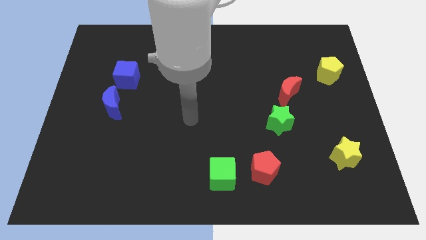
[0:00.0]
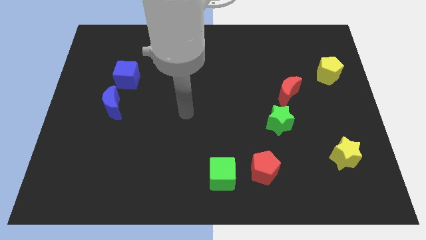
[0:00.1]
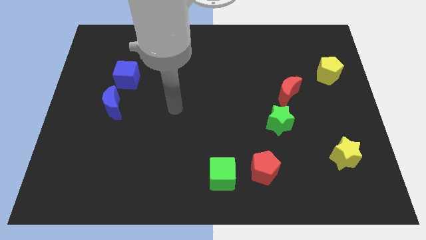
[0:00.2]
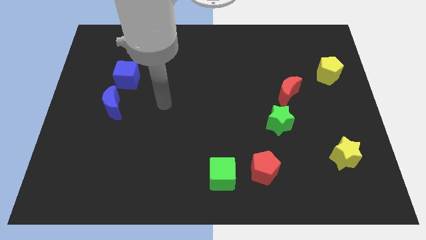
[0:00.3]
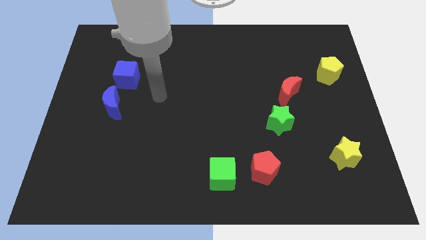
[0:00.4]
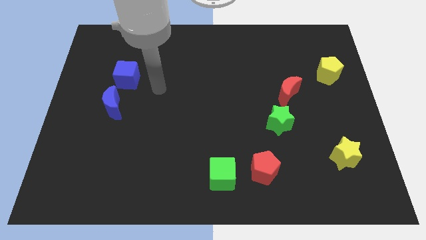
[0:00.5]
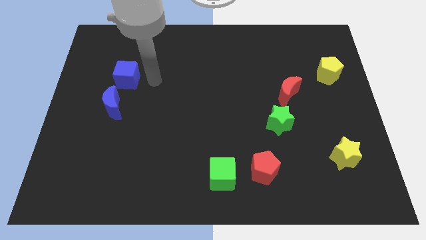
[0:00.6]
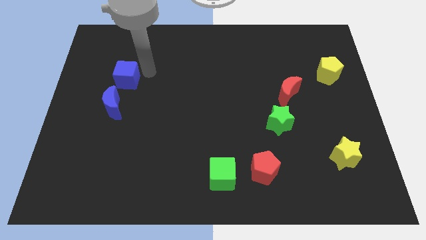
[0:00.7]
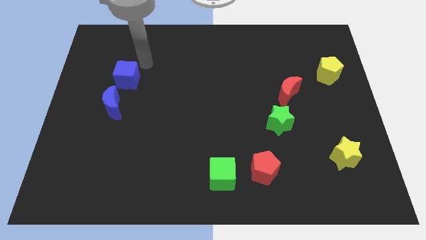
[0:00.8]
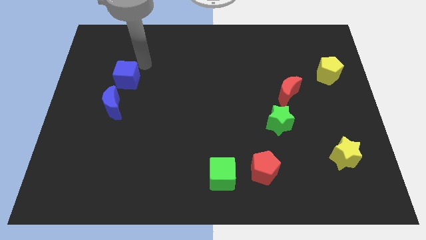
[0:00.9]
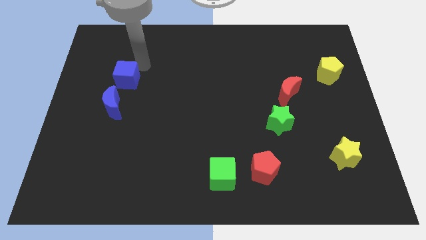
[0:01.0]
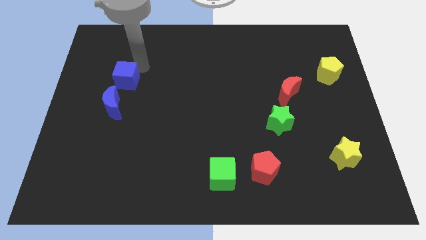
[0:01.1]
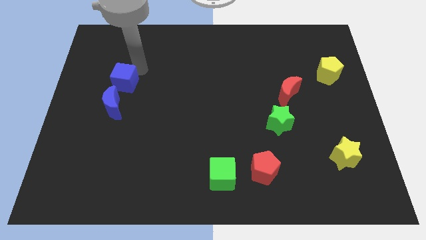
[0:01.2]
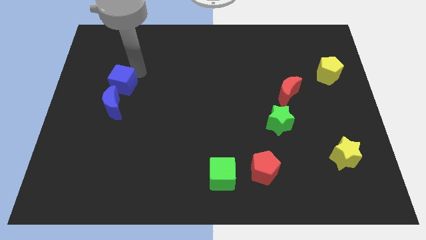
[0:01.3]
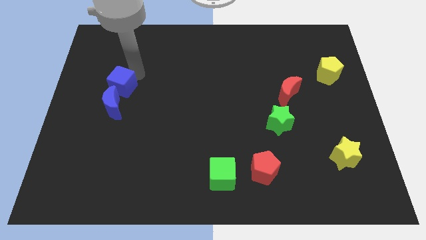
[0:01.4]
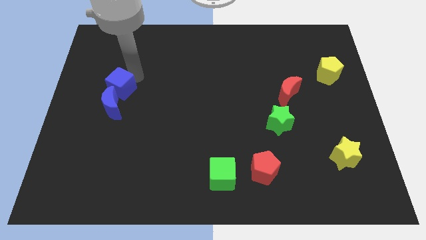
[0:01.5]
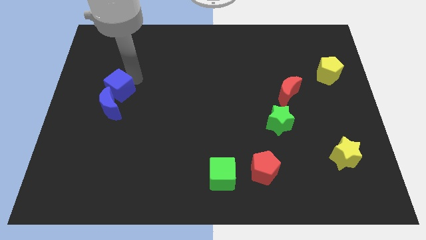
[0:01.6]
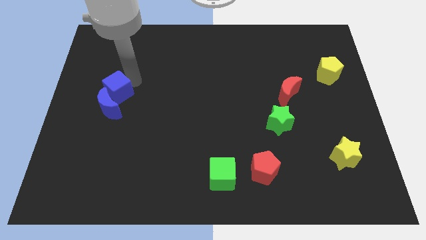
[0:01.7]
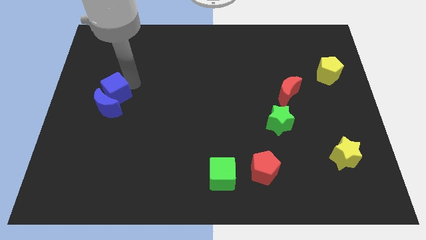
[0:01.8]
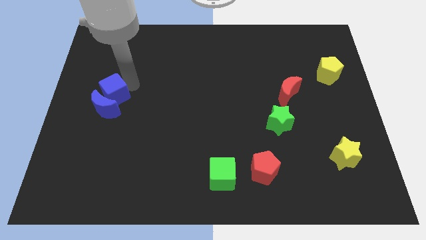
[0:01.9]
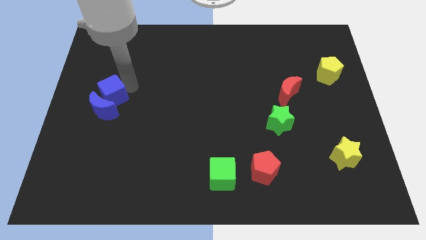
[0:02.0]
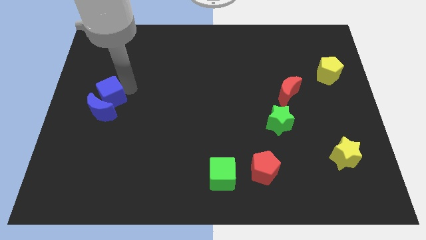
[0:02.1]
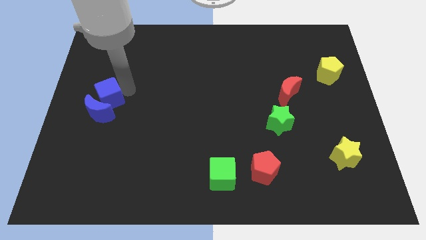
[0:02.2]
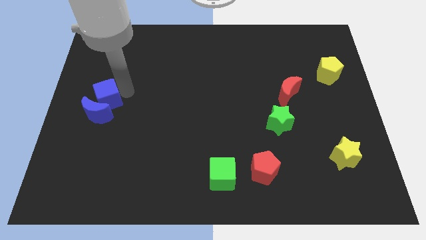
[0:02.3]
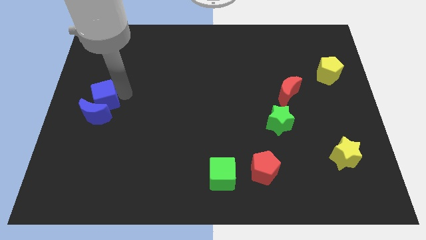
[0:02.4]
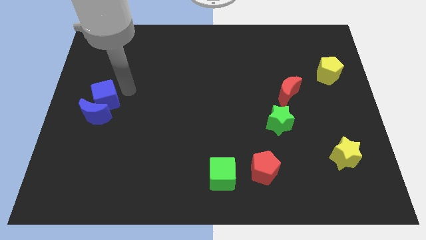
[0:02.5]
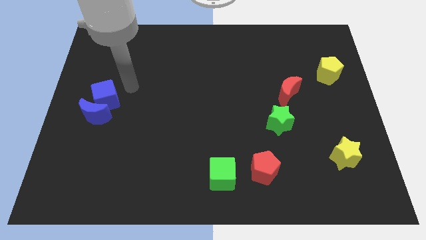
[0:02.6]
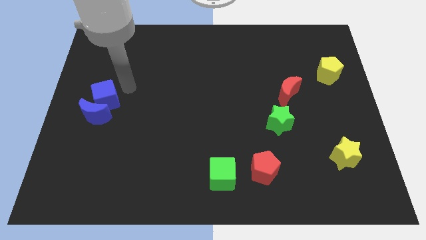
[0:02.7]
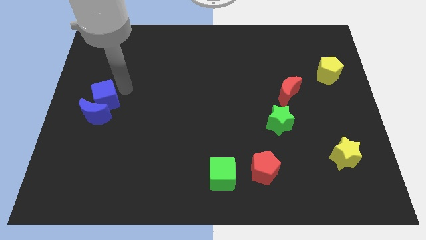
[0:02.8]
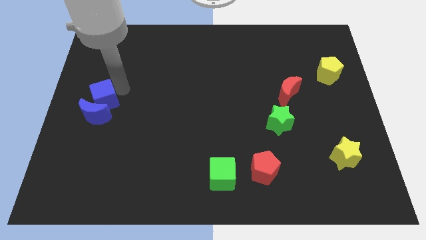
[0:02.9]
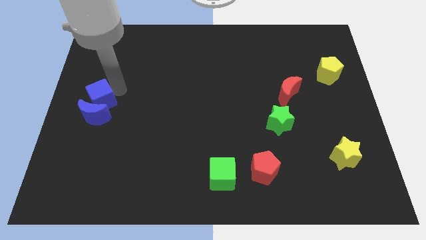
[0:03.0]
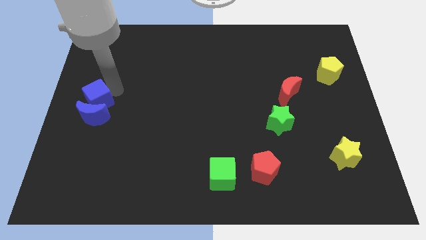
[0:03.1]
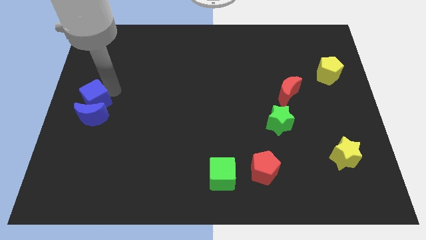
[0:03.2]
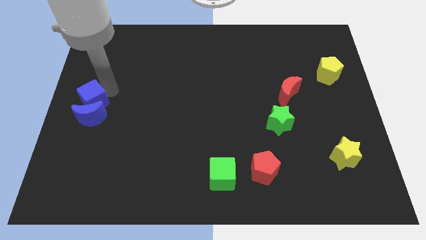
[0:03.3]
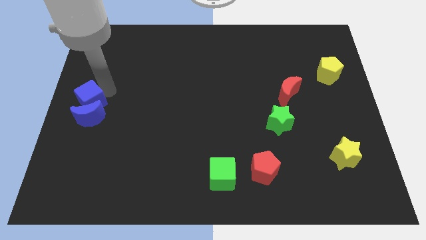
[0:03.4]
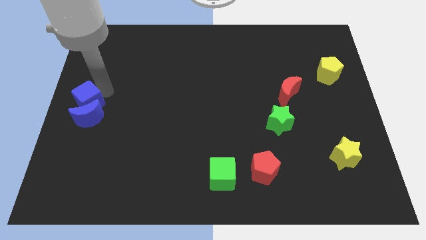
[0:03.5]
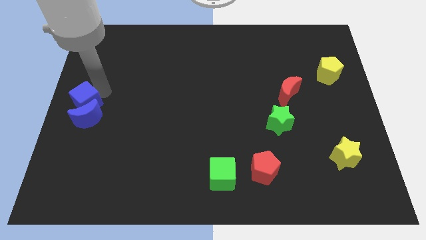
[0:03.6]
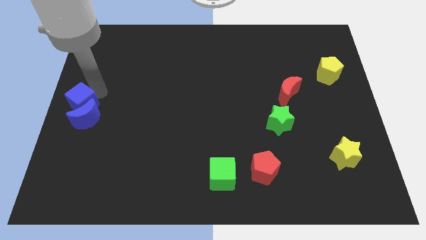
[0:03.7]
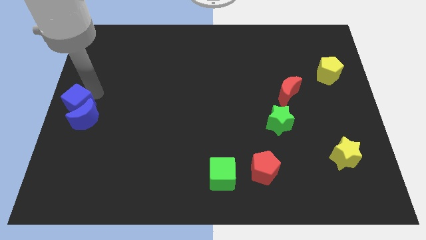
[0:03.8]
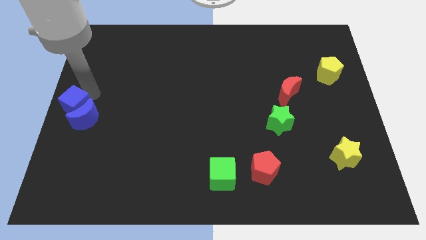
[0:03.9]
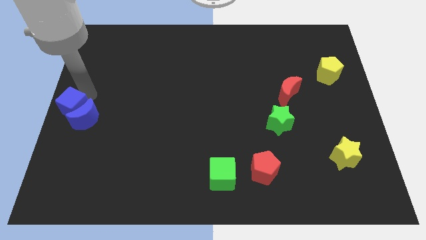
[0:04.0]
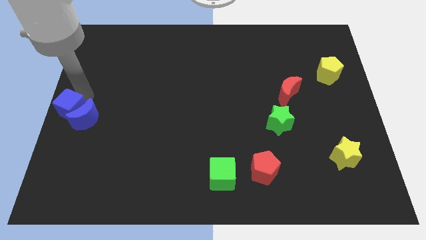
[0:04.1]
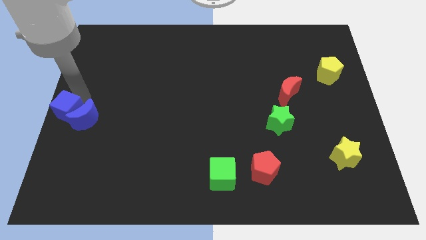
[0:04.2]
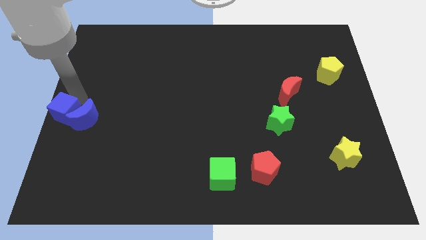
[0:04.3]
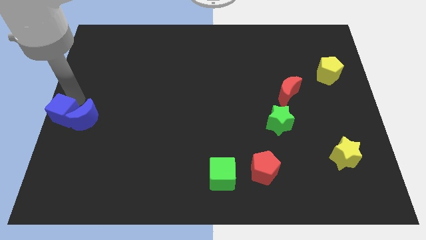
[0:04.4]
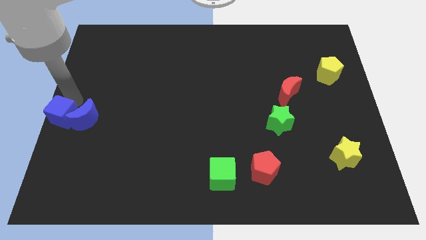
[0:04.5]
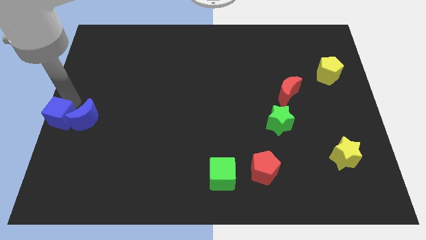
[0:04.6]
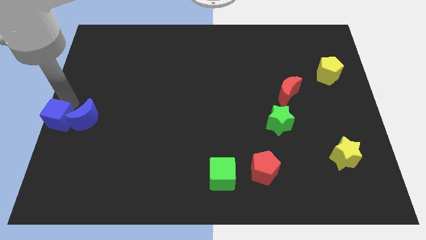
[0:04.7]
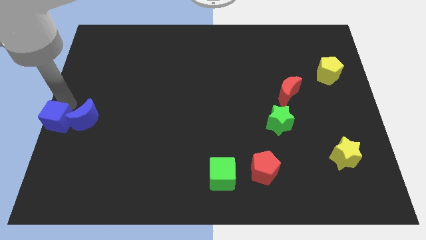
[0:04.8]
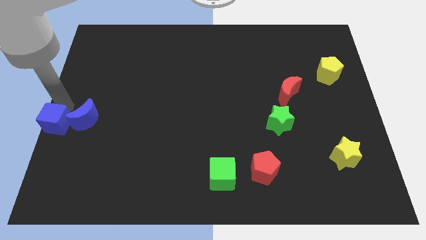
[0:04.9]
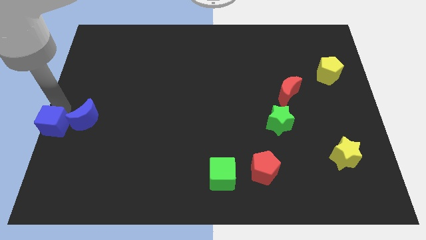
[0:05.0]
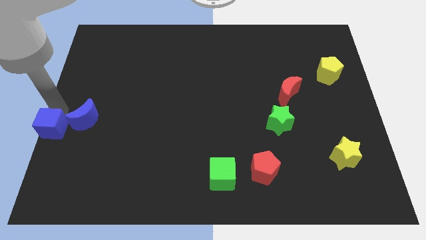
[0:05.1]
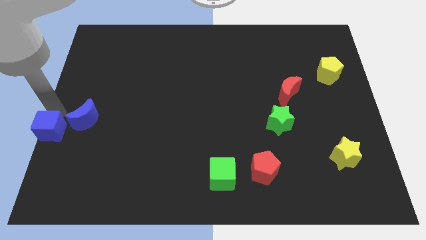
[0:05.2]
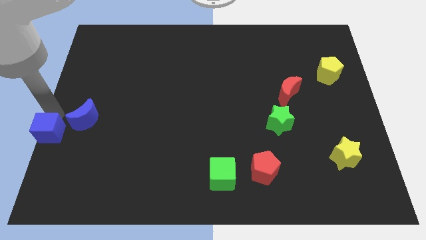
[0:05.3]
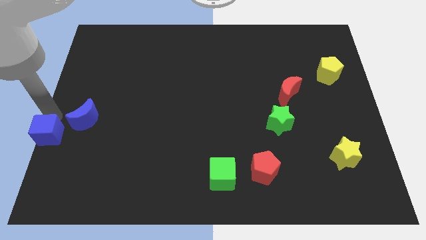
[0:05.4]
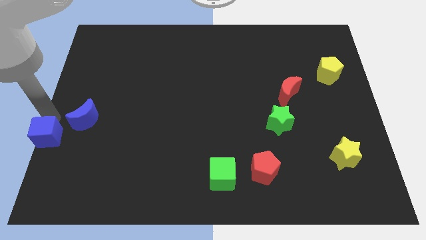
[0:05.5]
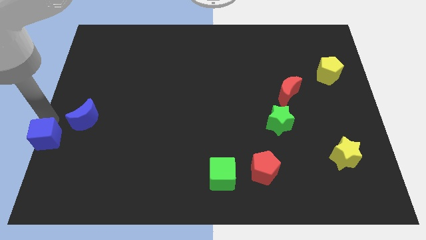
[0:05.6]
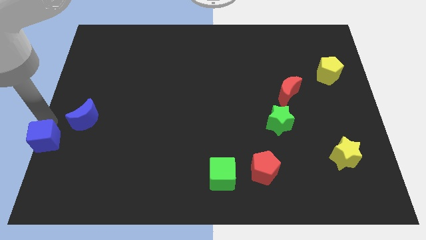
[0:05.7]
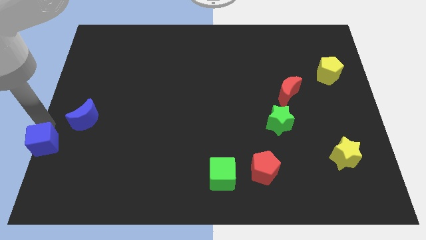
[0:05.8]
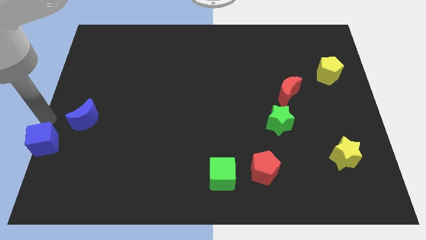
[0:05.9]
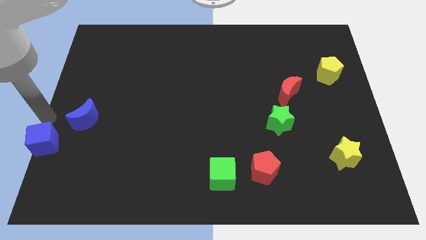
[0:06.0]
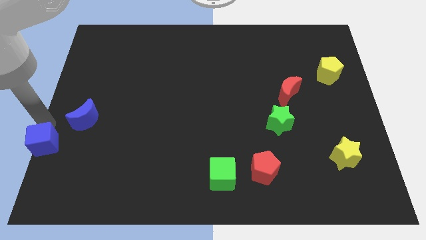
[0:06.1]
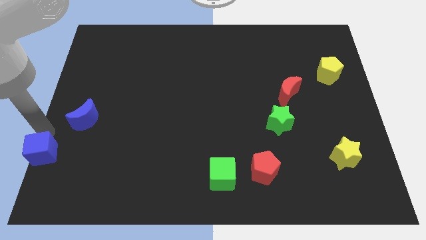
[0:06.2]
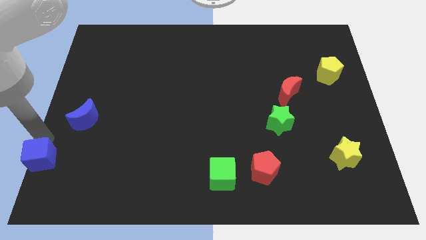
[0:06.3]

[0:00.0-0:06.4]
push the blue cube to the bottom left
